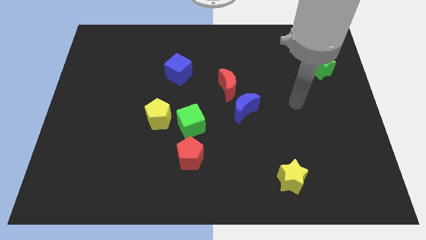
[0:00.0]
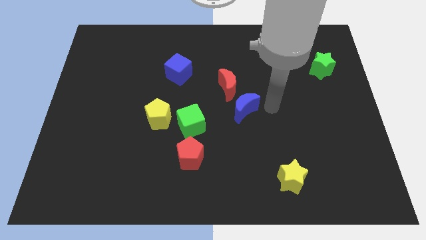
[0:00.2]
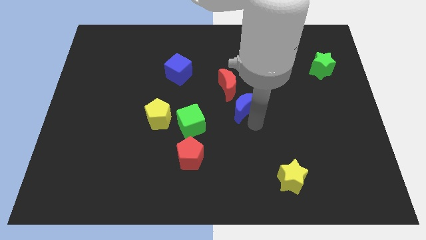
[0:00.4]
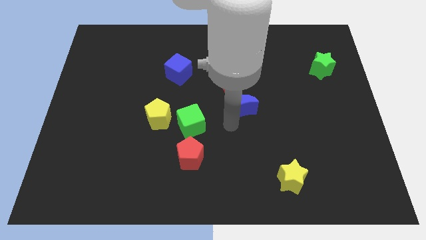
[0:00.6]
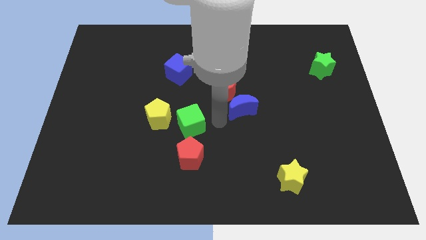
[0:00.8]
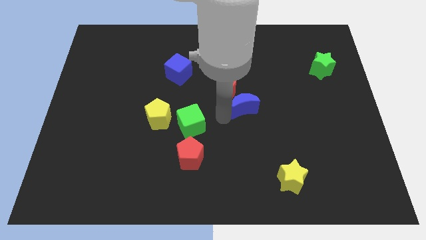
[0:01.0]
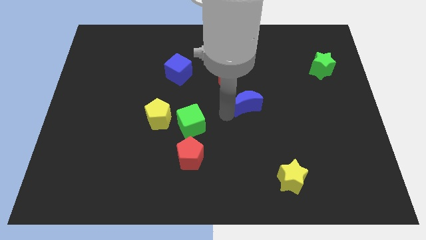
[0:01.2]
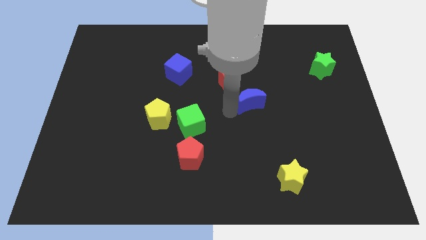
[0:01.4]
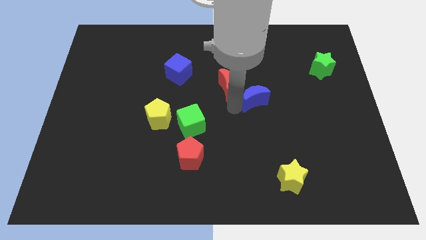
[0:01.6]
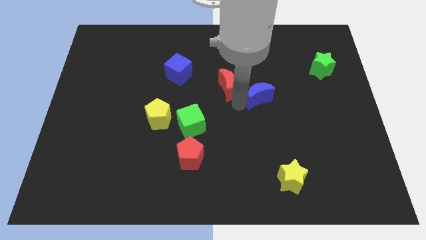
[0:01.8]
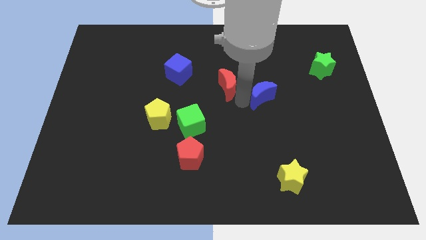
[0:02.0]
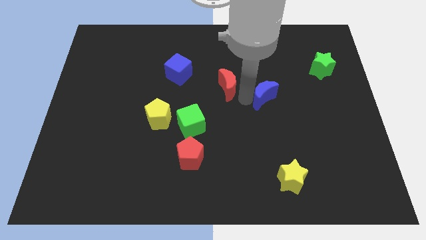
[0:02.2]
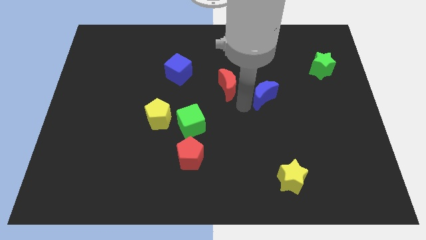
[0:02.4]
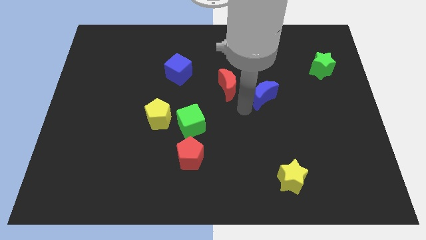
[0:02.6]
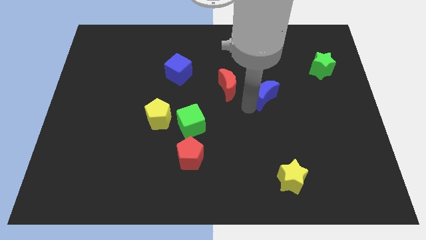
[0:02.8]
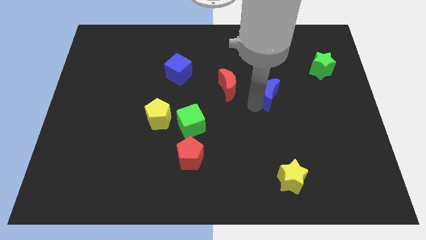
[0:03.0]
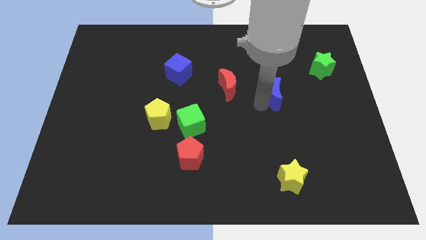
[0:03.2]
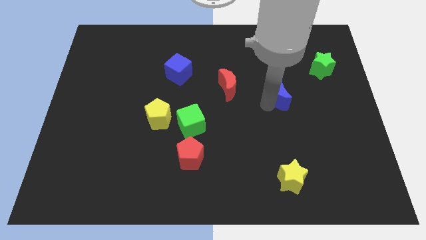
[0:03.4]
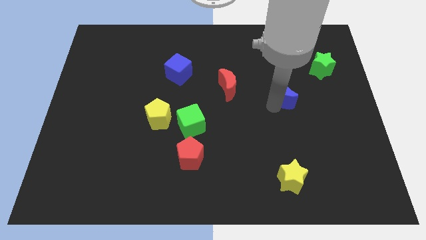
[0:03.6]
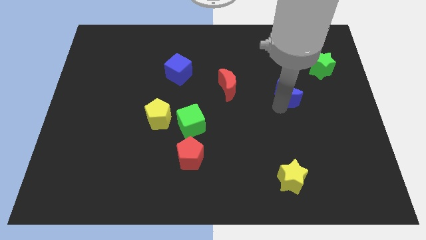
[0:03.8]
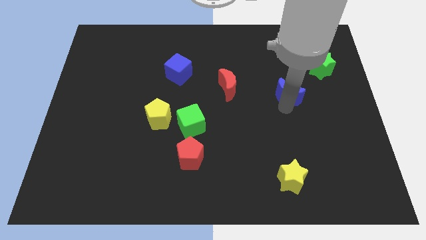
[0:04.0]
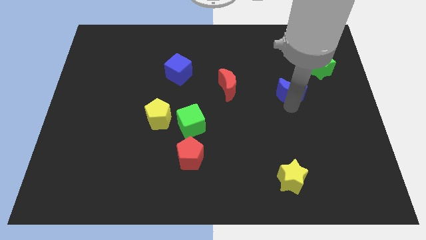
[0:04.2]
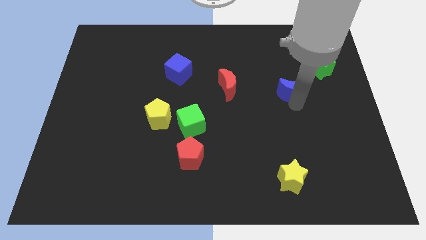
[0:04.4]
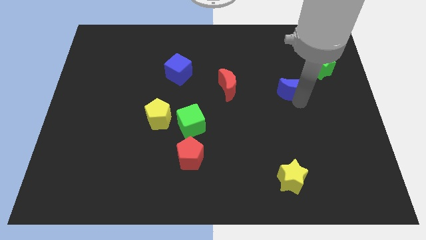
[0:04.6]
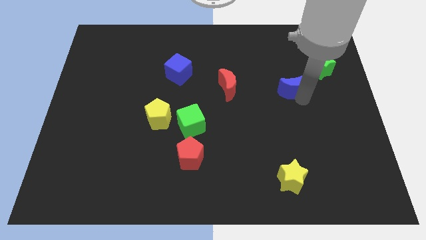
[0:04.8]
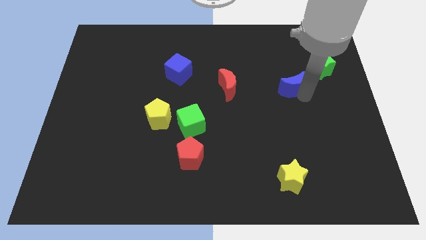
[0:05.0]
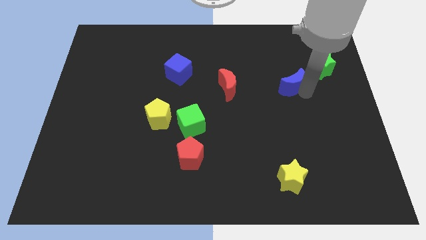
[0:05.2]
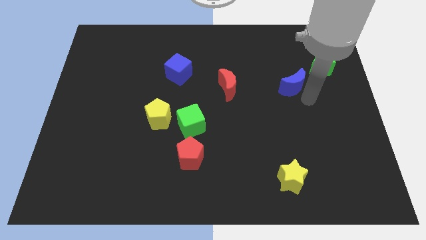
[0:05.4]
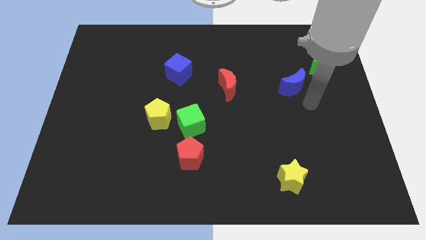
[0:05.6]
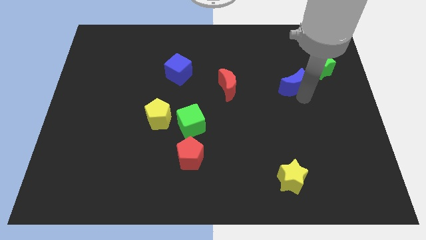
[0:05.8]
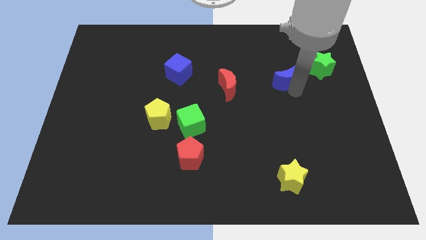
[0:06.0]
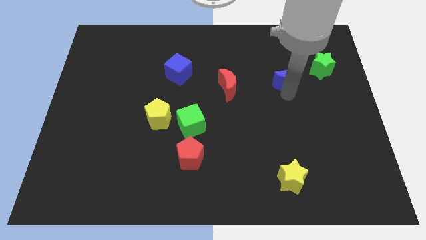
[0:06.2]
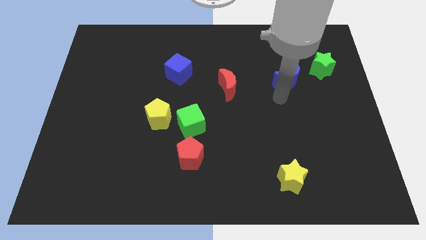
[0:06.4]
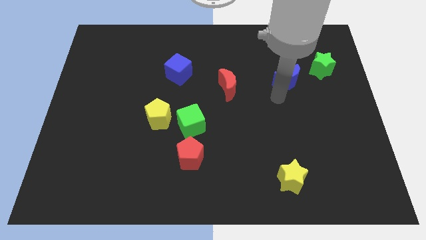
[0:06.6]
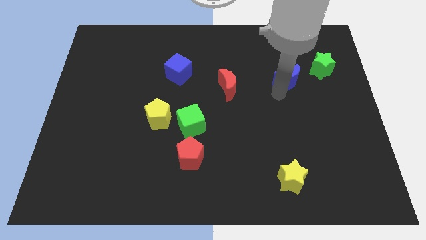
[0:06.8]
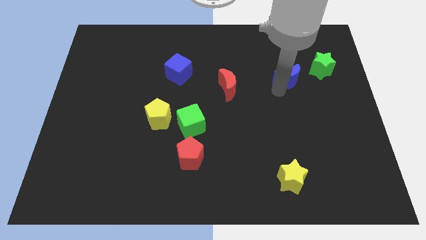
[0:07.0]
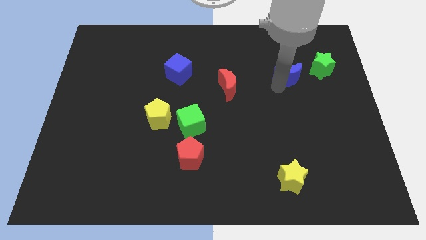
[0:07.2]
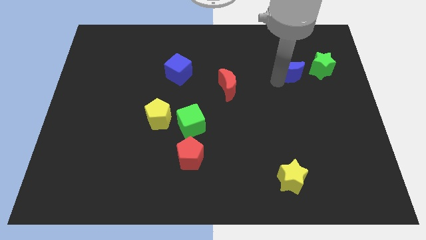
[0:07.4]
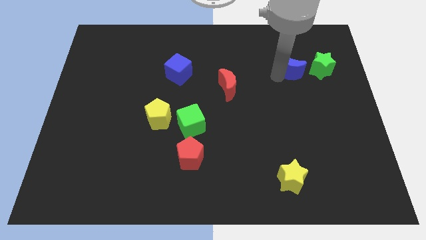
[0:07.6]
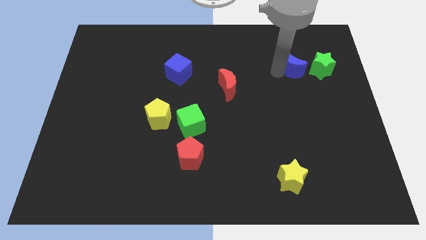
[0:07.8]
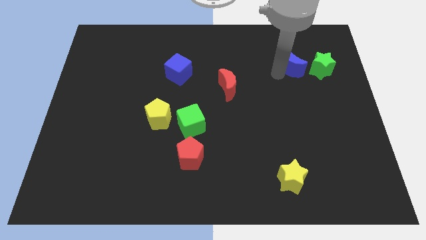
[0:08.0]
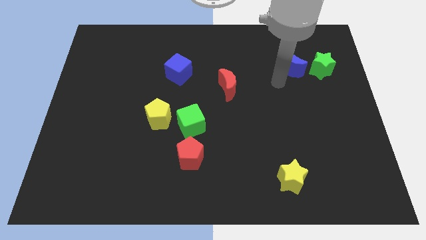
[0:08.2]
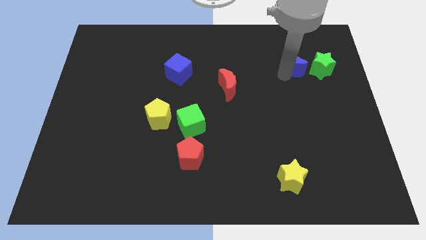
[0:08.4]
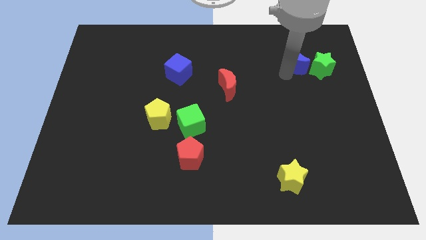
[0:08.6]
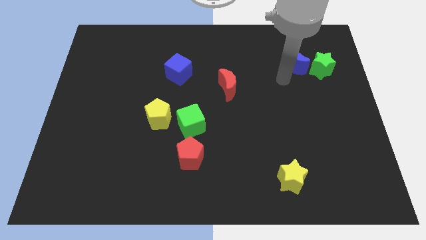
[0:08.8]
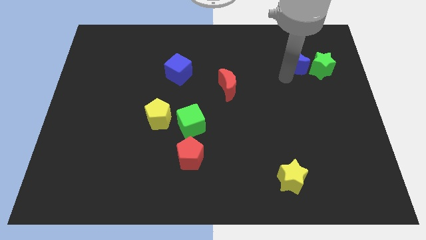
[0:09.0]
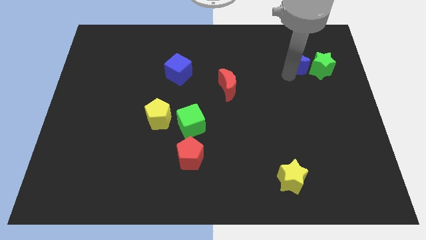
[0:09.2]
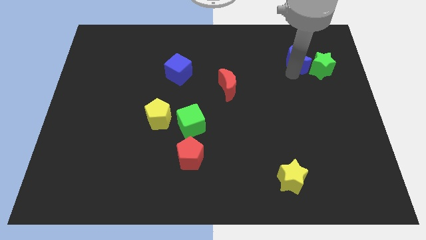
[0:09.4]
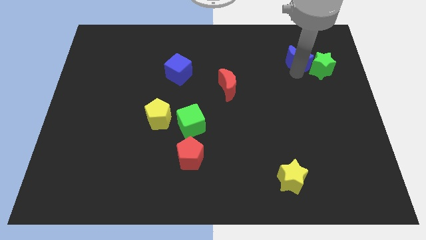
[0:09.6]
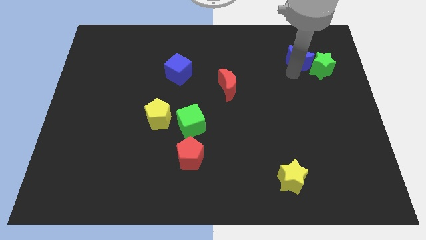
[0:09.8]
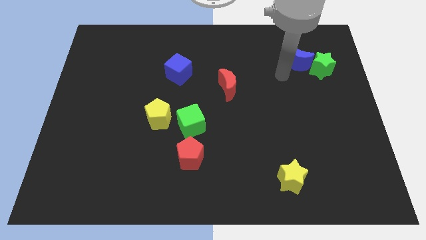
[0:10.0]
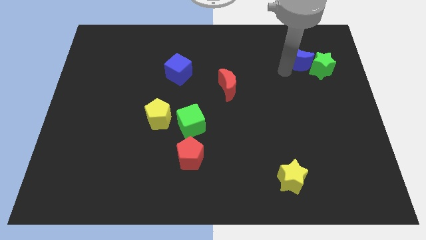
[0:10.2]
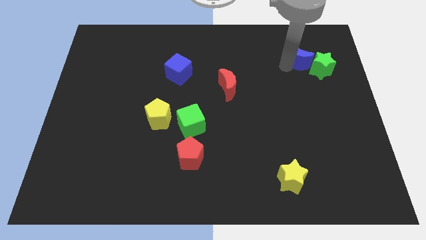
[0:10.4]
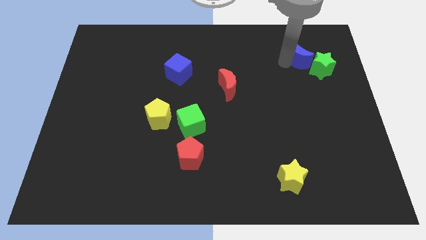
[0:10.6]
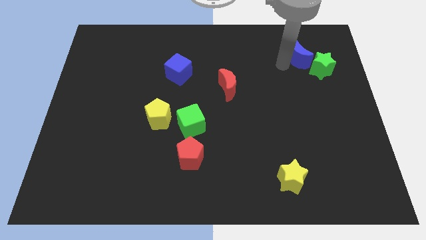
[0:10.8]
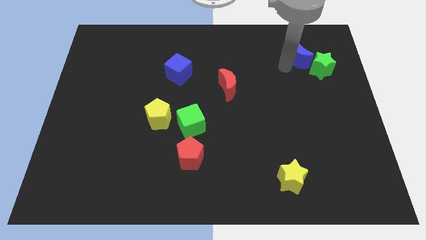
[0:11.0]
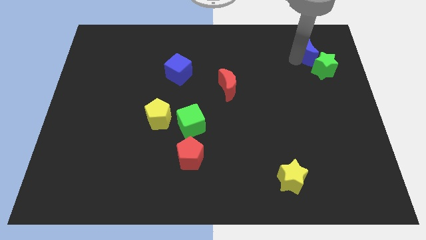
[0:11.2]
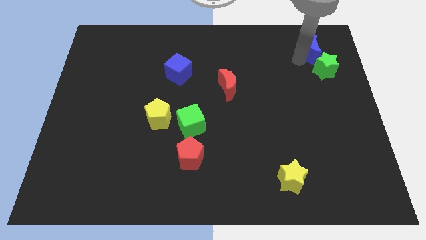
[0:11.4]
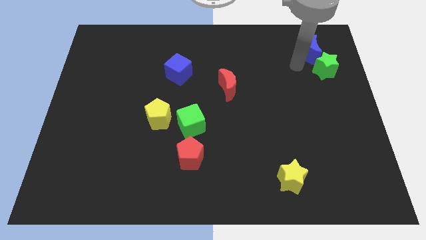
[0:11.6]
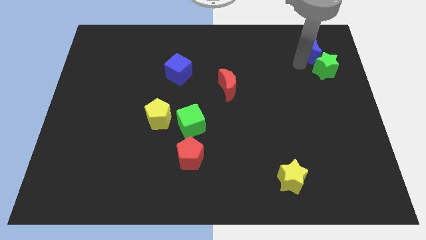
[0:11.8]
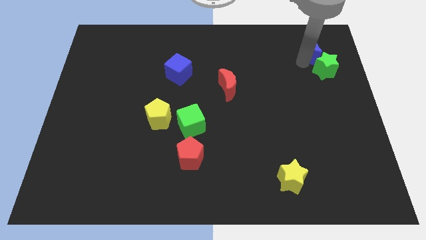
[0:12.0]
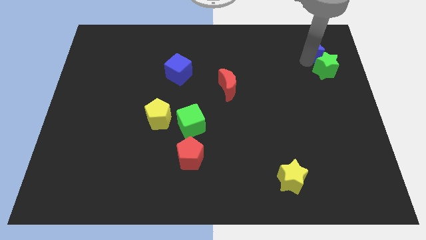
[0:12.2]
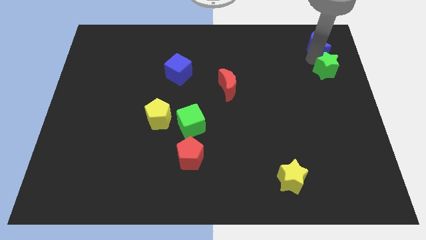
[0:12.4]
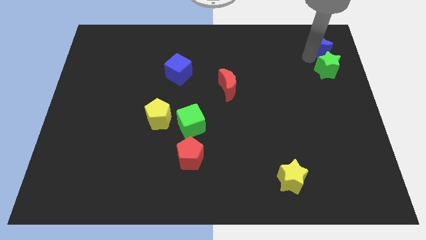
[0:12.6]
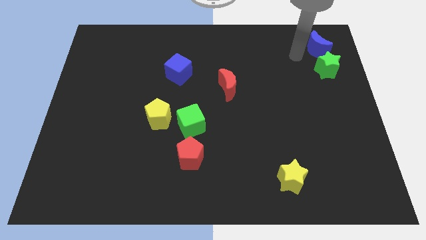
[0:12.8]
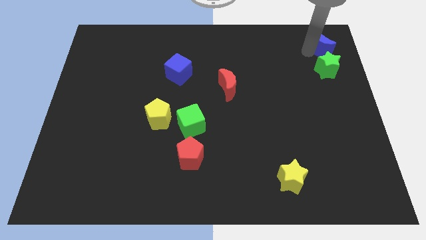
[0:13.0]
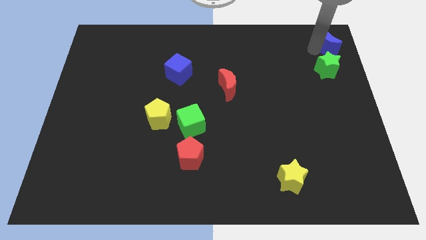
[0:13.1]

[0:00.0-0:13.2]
put the blue moon to the upper right corner

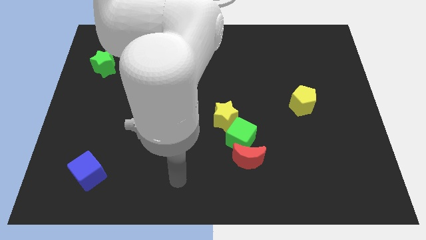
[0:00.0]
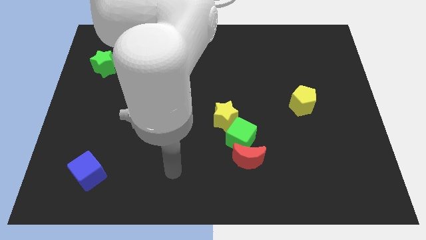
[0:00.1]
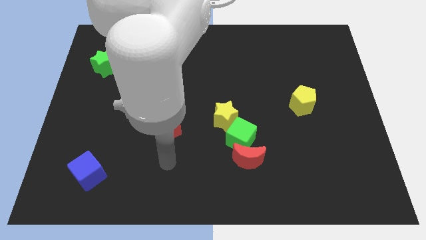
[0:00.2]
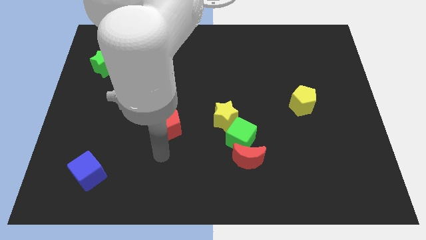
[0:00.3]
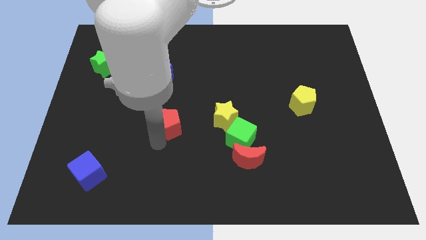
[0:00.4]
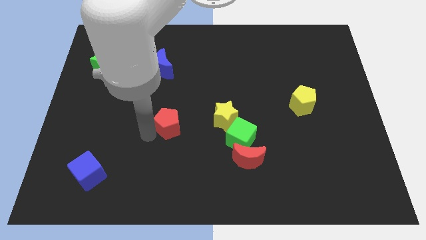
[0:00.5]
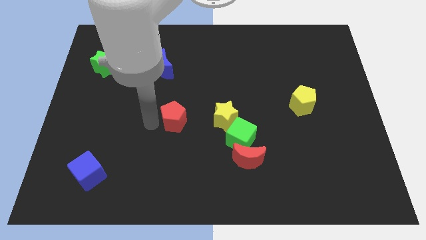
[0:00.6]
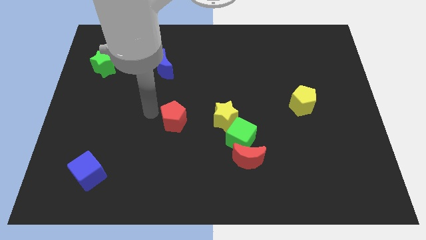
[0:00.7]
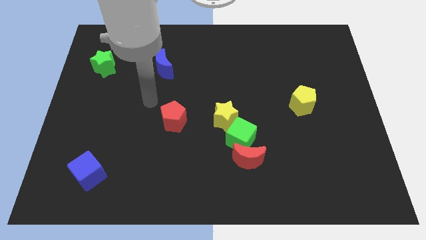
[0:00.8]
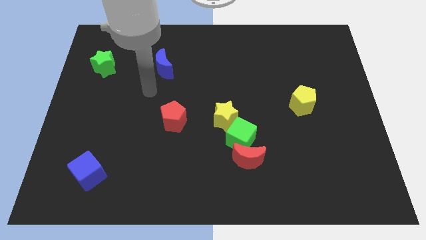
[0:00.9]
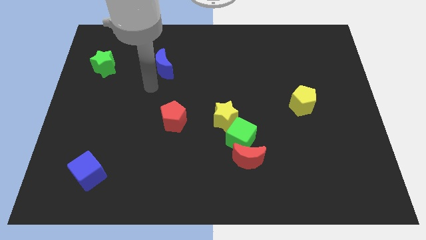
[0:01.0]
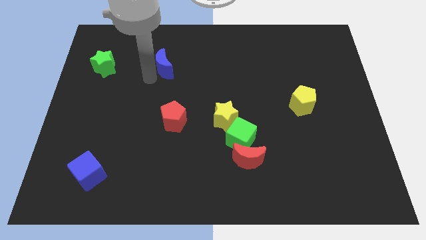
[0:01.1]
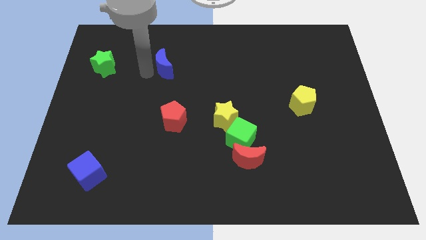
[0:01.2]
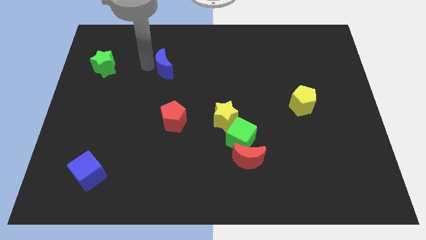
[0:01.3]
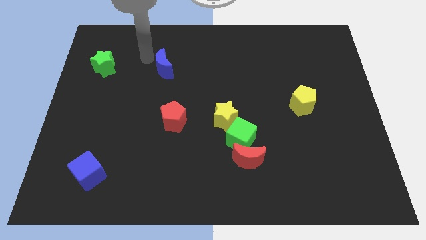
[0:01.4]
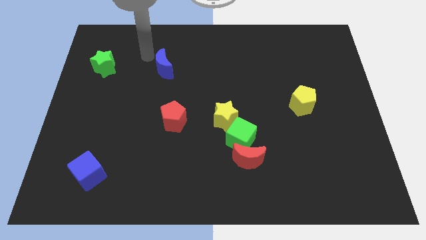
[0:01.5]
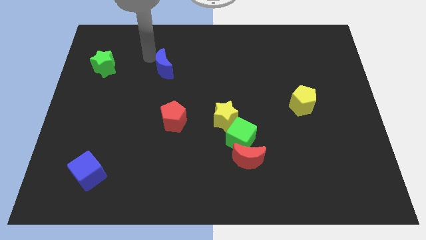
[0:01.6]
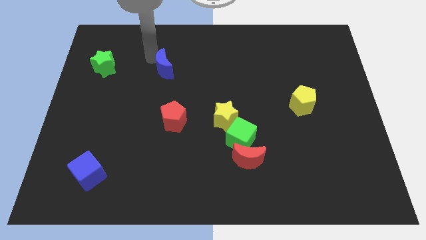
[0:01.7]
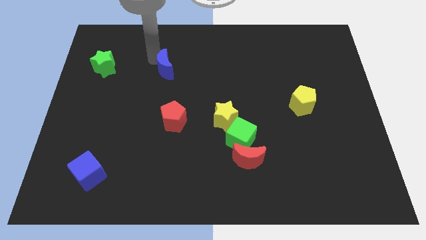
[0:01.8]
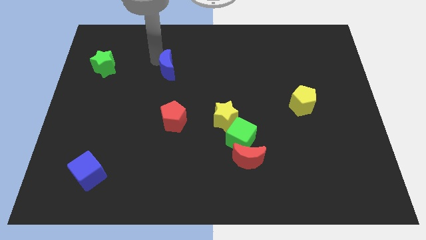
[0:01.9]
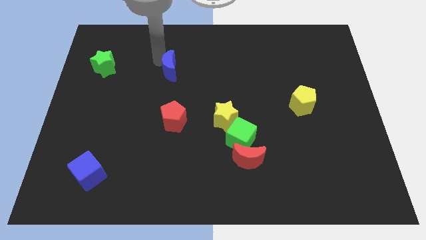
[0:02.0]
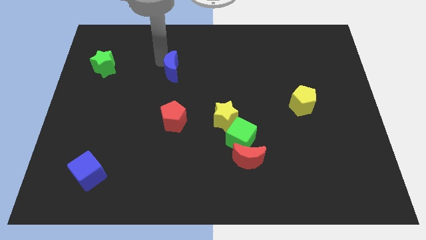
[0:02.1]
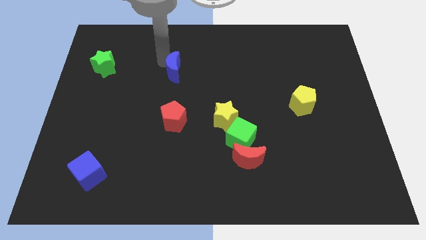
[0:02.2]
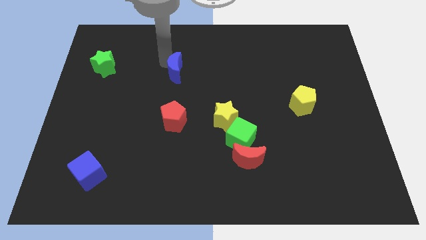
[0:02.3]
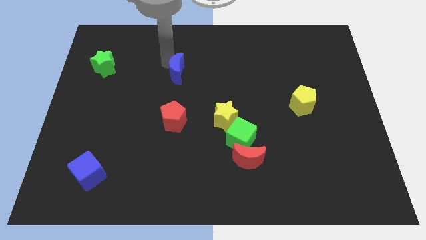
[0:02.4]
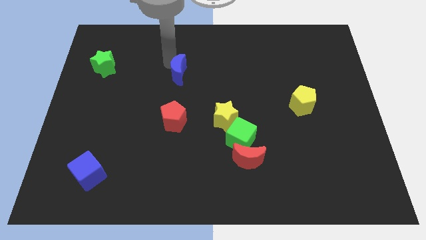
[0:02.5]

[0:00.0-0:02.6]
slide the blue moon to the center of the board
